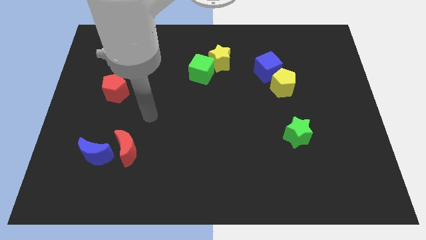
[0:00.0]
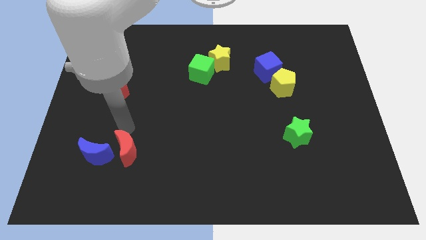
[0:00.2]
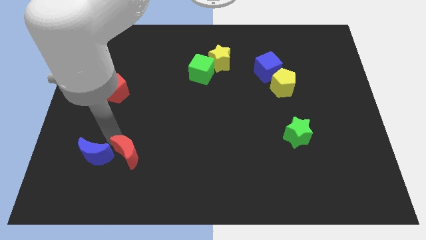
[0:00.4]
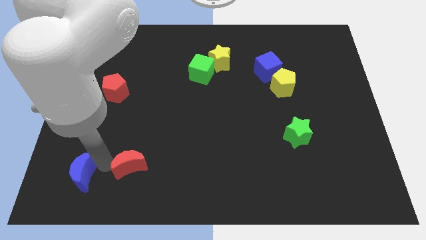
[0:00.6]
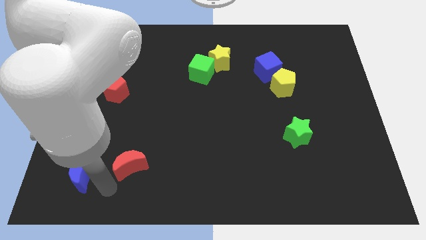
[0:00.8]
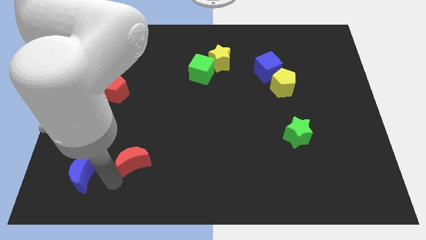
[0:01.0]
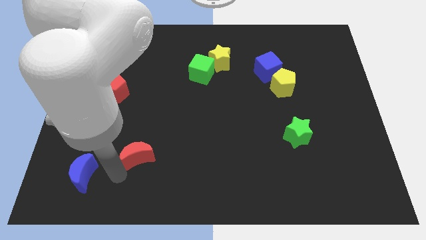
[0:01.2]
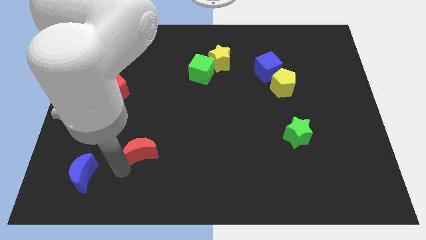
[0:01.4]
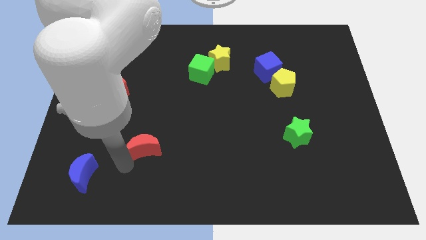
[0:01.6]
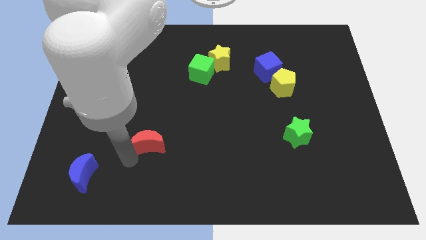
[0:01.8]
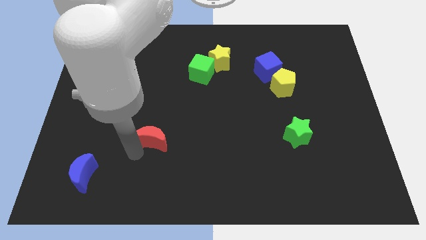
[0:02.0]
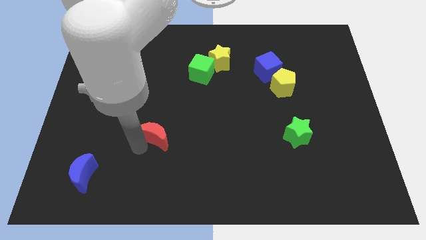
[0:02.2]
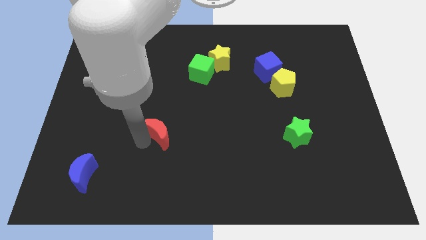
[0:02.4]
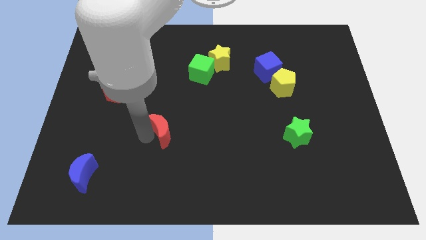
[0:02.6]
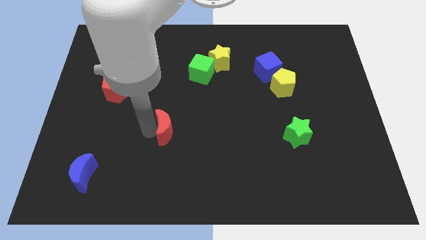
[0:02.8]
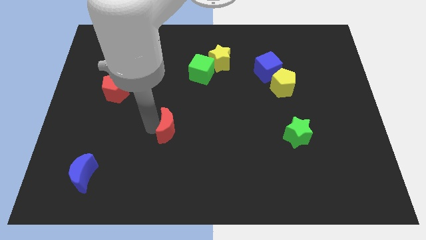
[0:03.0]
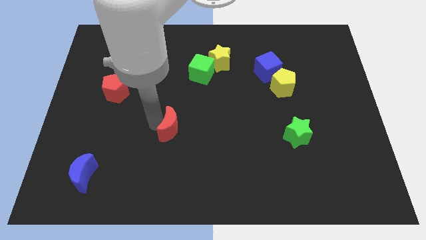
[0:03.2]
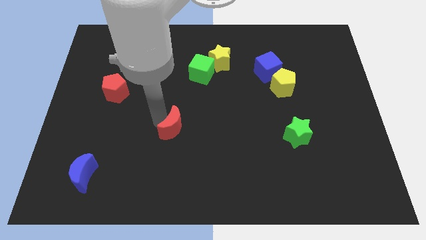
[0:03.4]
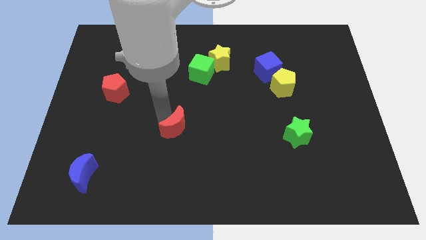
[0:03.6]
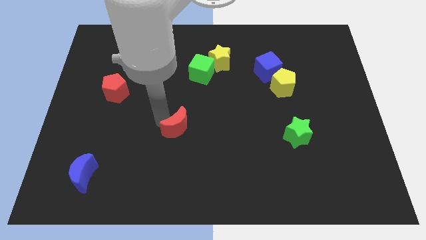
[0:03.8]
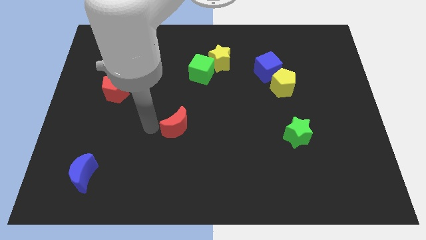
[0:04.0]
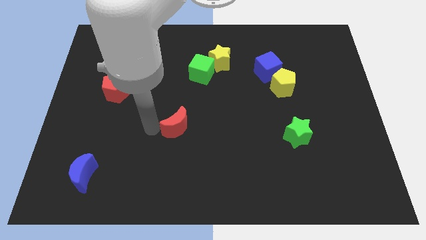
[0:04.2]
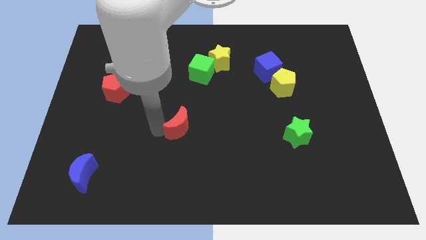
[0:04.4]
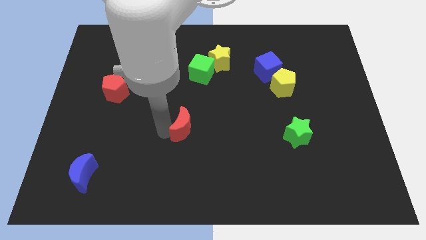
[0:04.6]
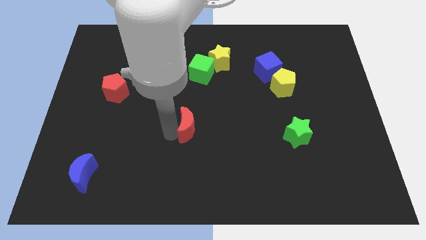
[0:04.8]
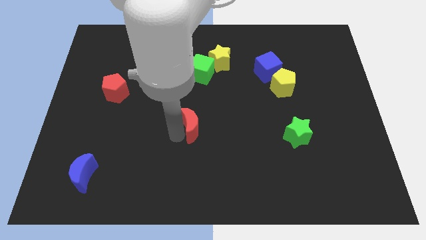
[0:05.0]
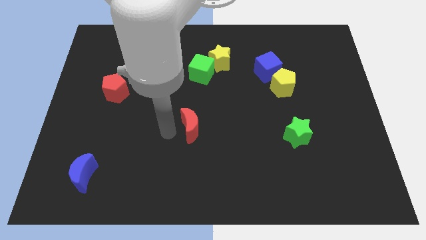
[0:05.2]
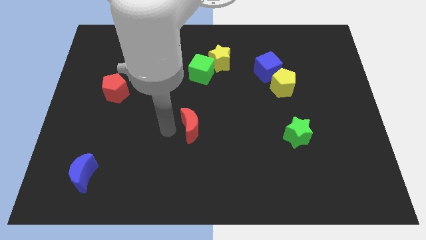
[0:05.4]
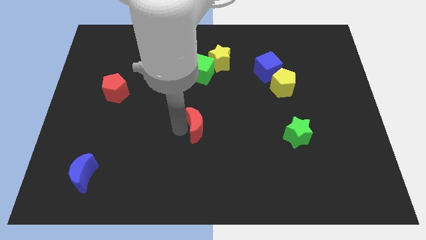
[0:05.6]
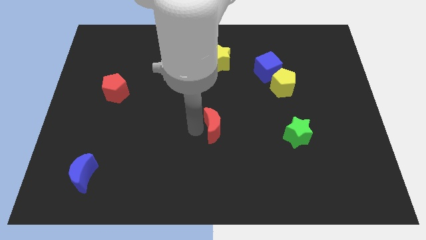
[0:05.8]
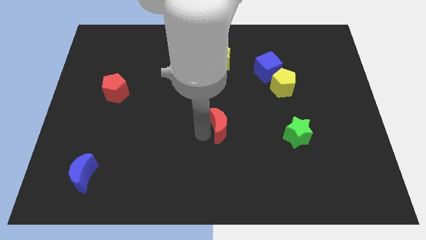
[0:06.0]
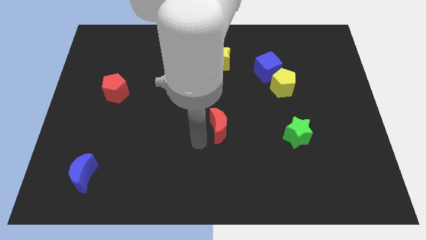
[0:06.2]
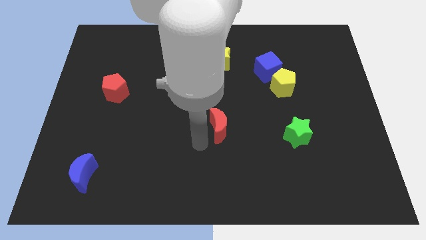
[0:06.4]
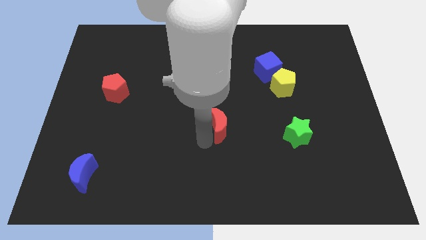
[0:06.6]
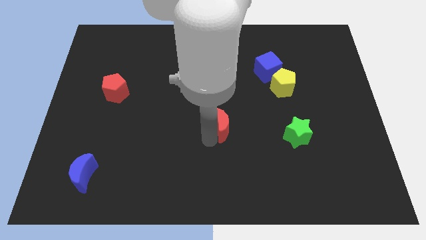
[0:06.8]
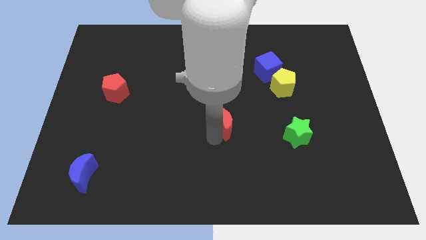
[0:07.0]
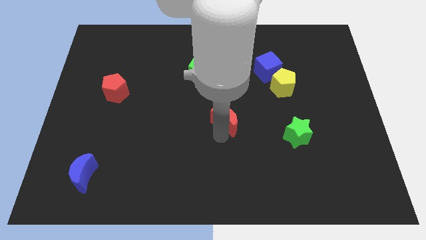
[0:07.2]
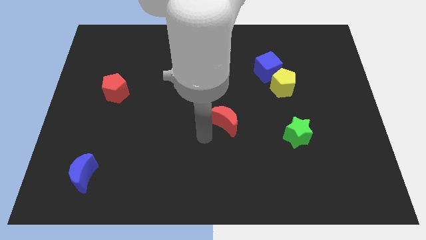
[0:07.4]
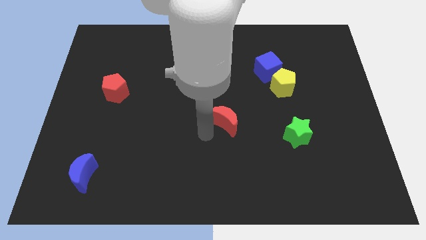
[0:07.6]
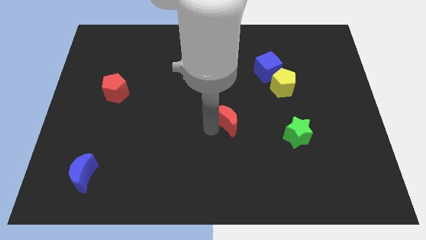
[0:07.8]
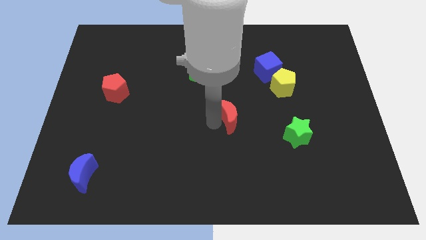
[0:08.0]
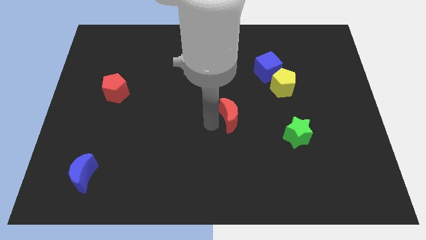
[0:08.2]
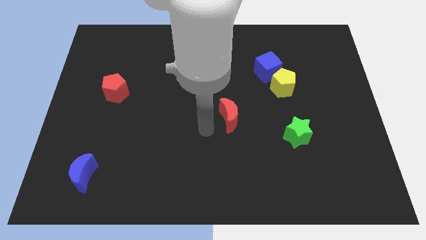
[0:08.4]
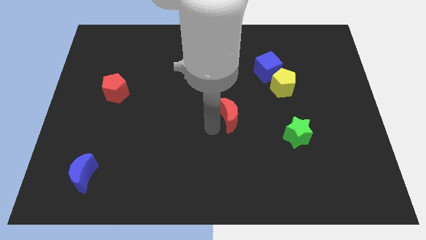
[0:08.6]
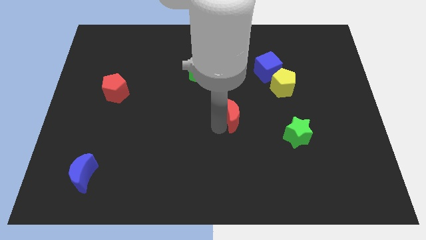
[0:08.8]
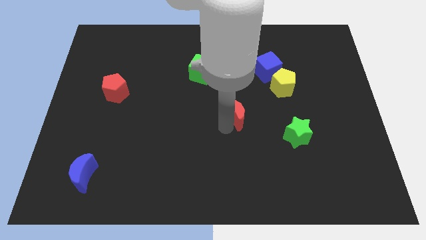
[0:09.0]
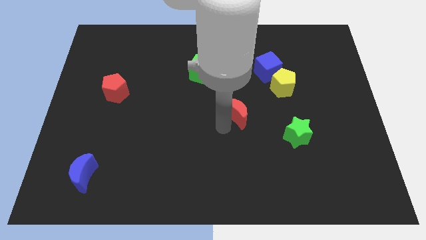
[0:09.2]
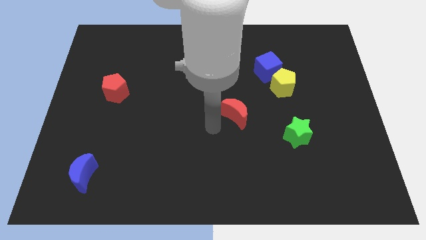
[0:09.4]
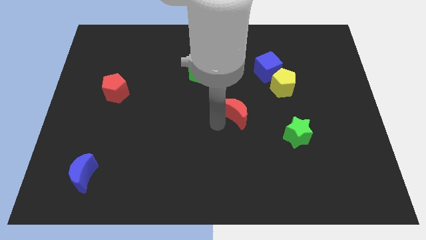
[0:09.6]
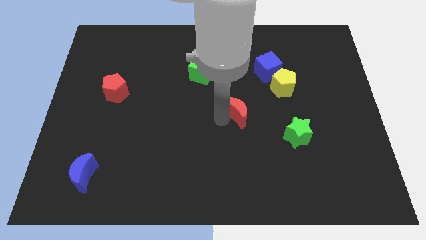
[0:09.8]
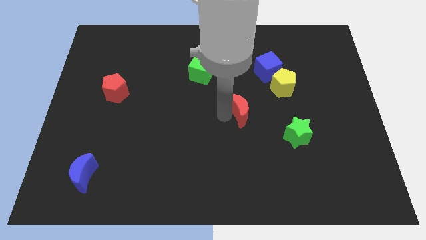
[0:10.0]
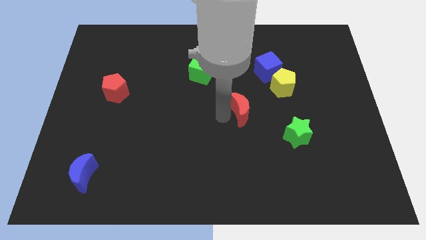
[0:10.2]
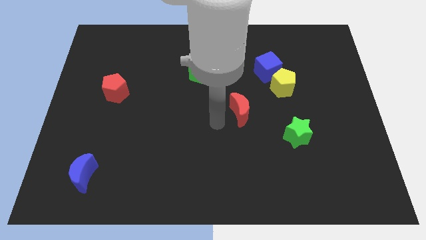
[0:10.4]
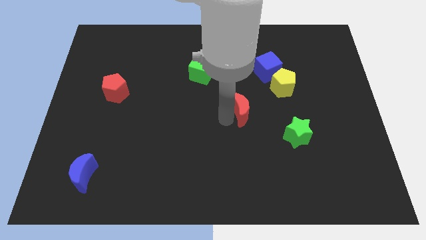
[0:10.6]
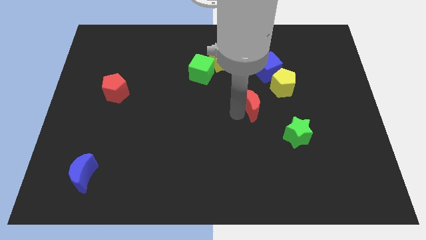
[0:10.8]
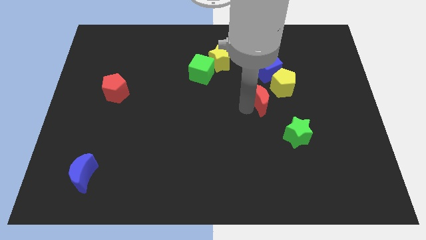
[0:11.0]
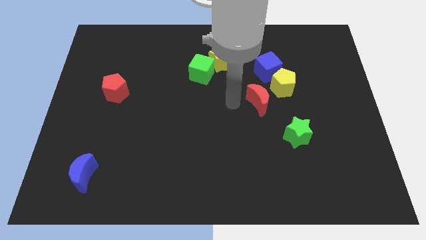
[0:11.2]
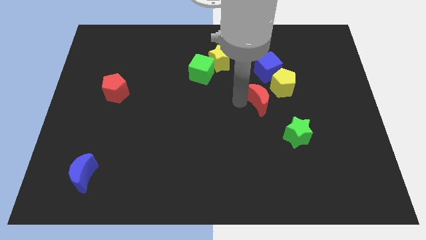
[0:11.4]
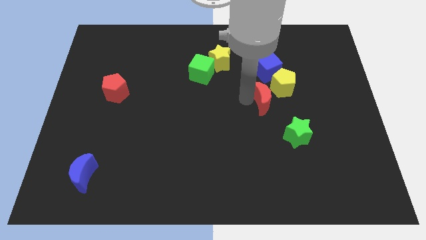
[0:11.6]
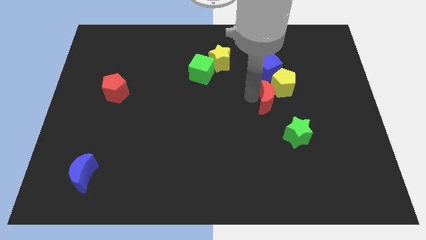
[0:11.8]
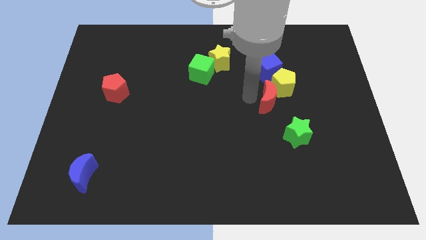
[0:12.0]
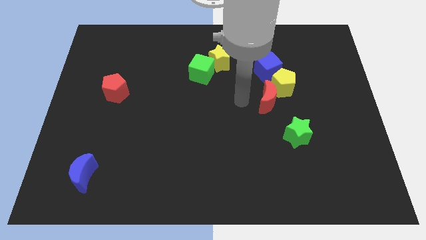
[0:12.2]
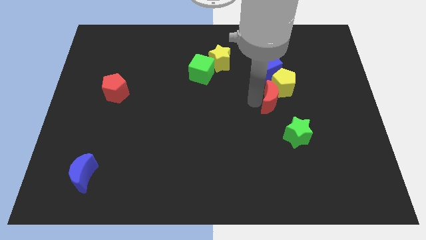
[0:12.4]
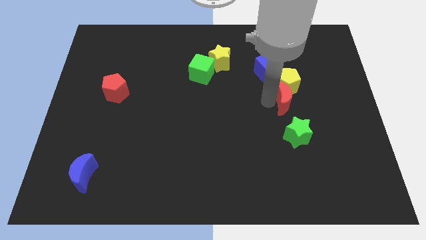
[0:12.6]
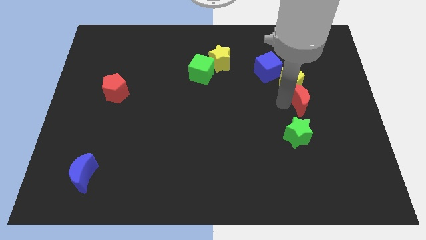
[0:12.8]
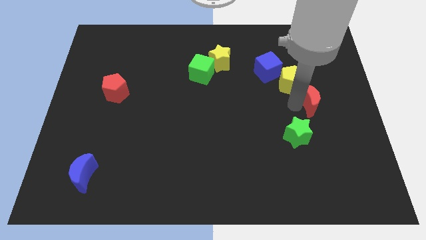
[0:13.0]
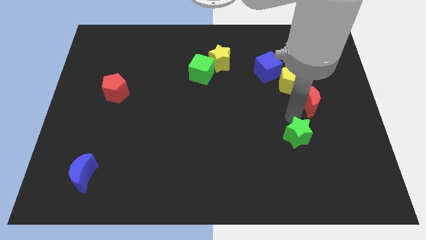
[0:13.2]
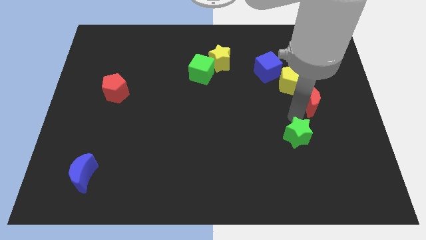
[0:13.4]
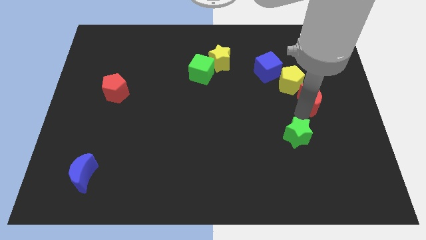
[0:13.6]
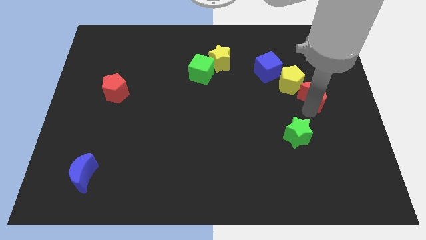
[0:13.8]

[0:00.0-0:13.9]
move the red moon just right of the yellow pentagon
